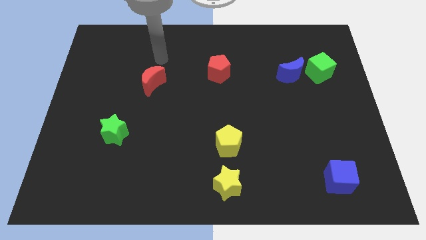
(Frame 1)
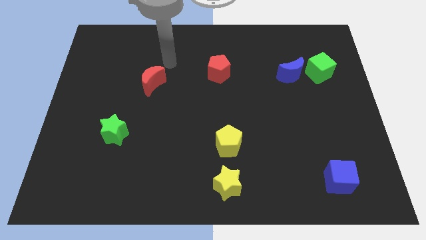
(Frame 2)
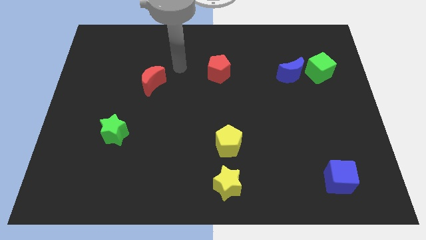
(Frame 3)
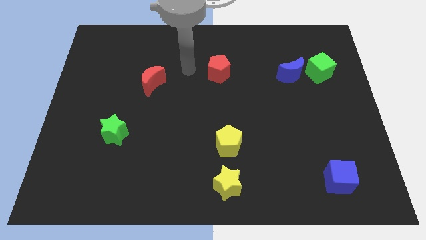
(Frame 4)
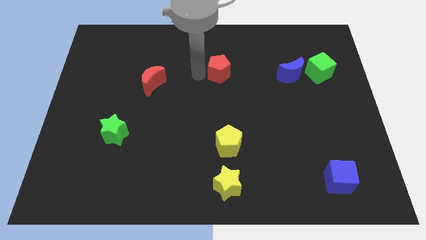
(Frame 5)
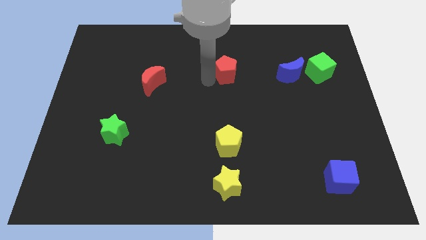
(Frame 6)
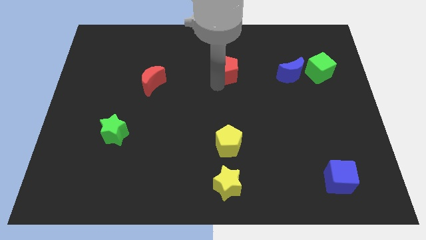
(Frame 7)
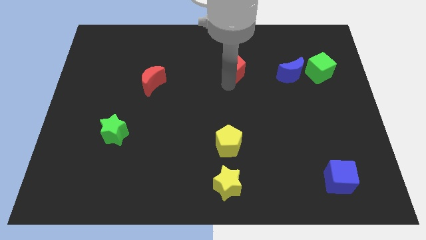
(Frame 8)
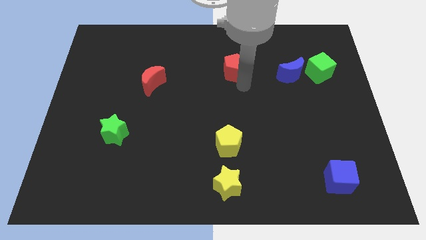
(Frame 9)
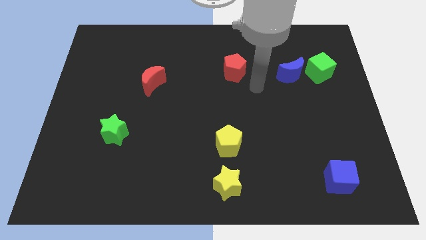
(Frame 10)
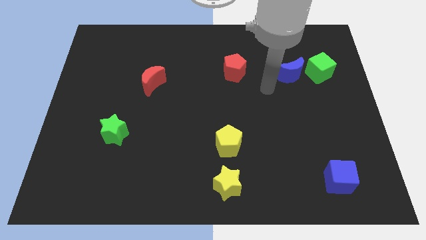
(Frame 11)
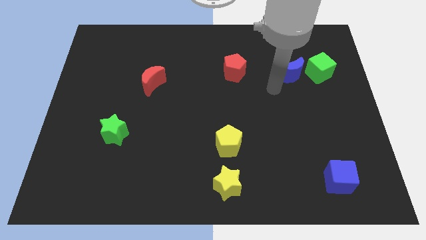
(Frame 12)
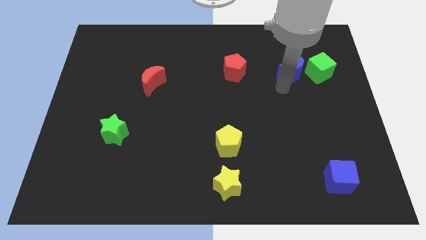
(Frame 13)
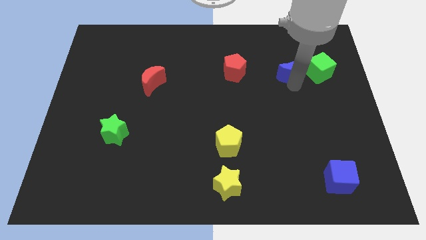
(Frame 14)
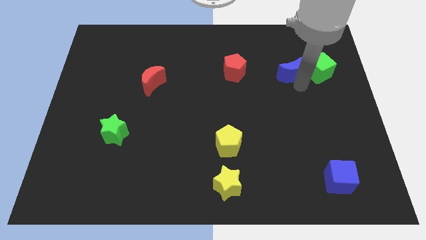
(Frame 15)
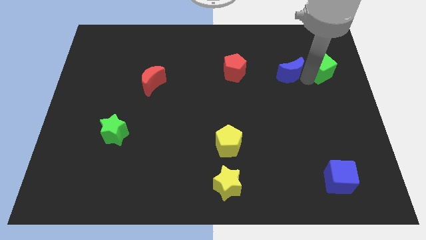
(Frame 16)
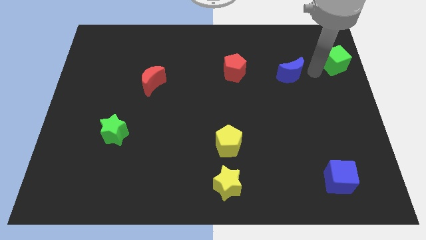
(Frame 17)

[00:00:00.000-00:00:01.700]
separate the blue moon from the green cube

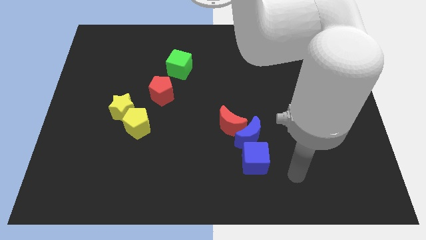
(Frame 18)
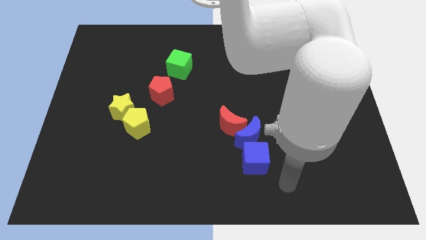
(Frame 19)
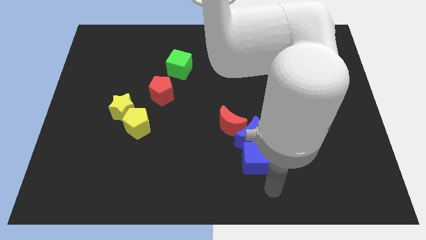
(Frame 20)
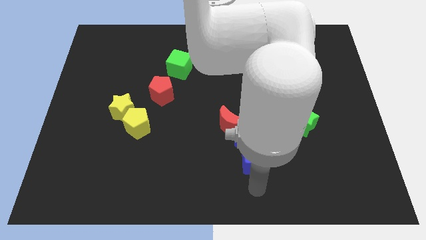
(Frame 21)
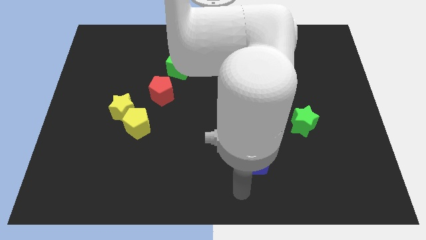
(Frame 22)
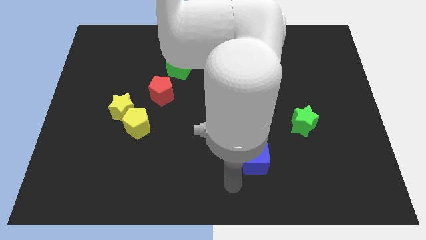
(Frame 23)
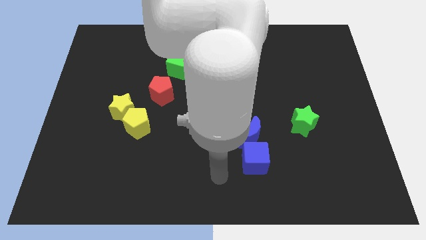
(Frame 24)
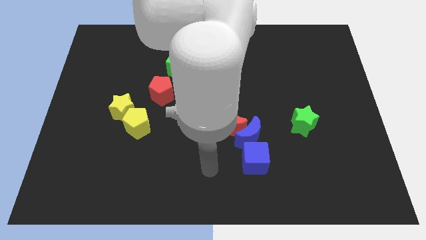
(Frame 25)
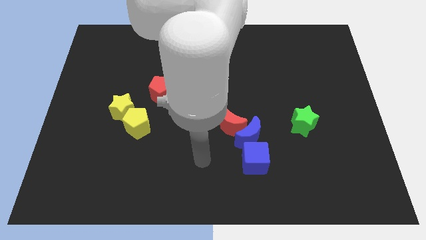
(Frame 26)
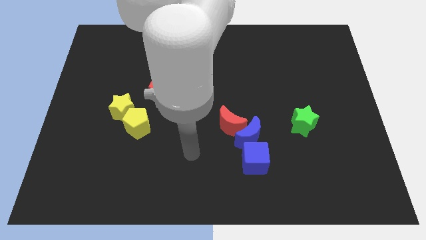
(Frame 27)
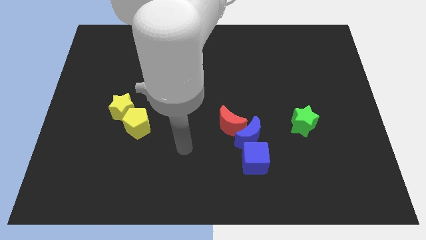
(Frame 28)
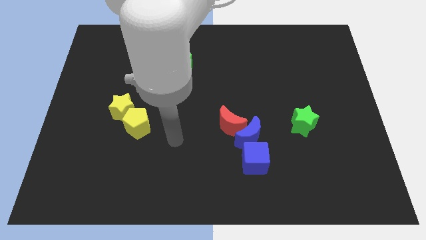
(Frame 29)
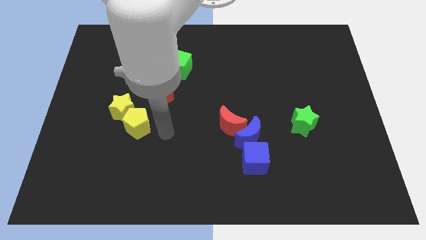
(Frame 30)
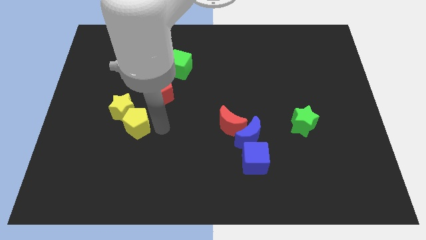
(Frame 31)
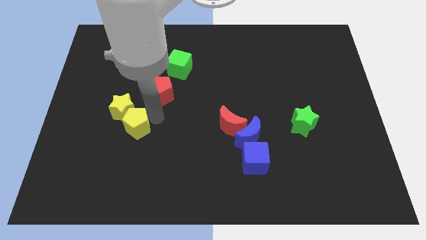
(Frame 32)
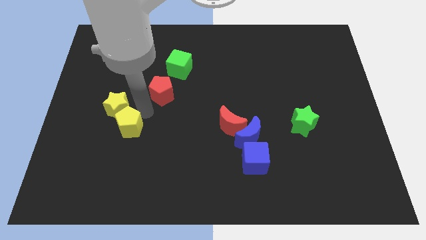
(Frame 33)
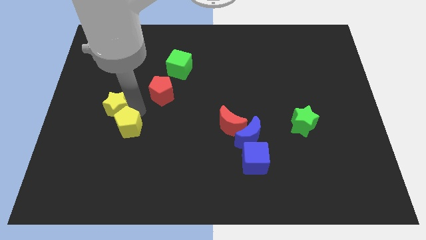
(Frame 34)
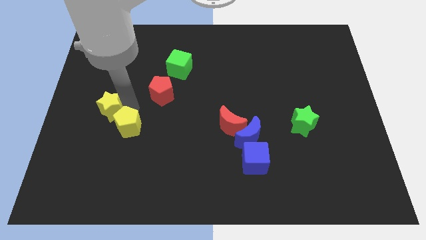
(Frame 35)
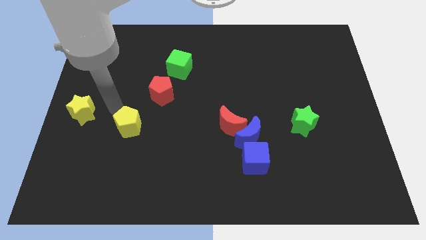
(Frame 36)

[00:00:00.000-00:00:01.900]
move the yellow pentagon away from the yellow star

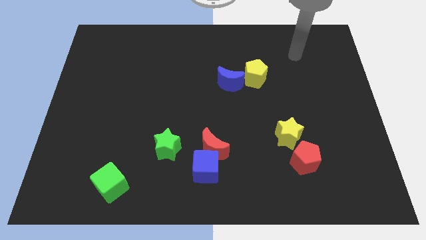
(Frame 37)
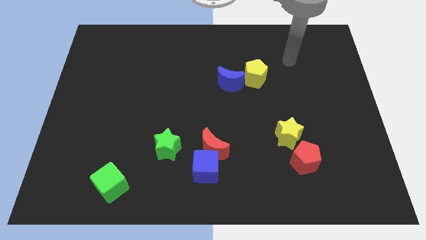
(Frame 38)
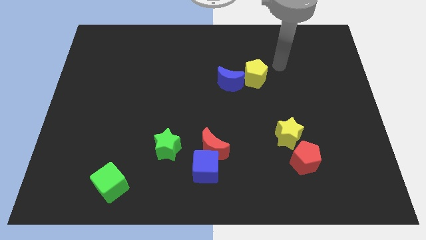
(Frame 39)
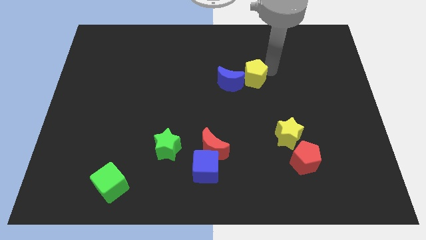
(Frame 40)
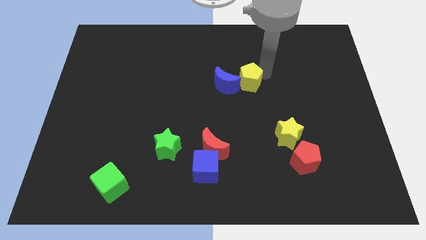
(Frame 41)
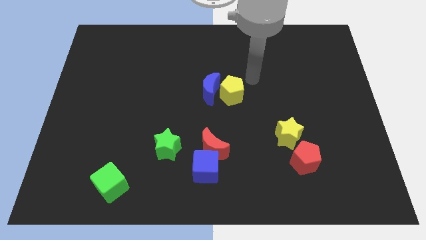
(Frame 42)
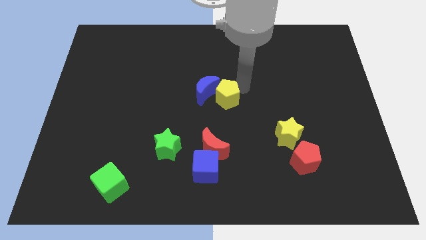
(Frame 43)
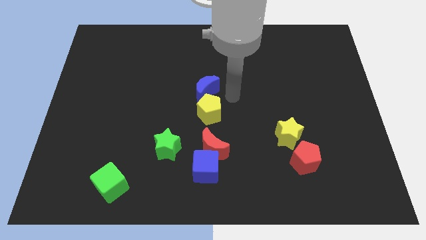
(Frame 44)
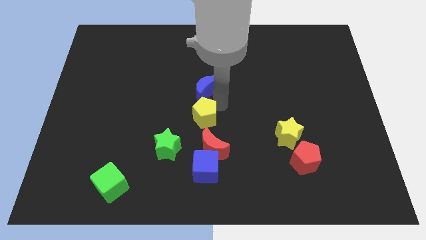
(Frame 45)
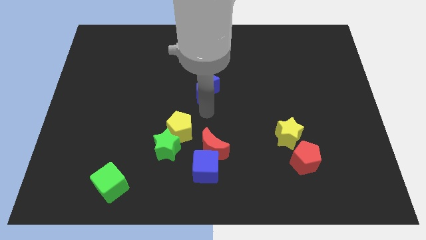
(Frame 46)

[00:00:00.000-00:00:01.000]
pull the blue moon apart from the yellow pentagon

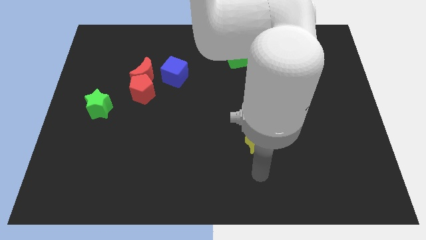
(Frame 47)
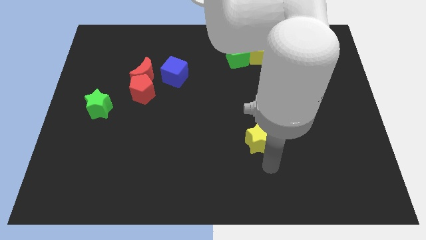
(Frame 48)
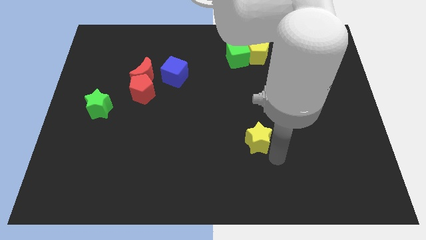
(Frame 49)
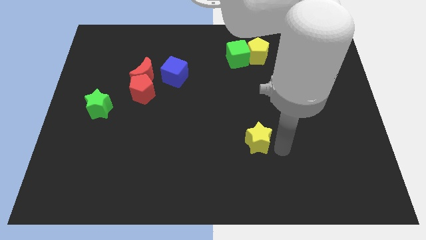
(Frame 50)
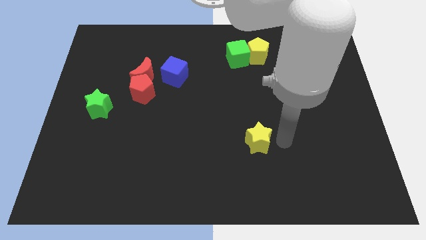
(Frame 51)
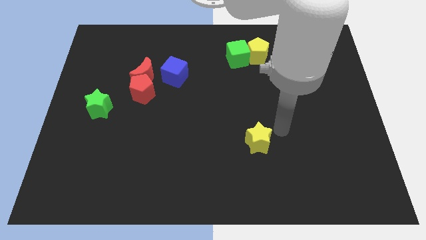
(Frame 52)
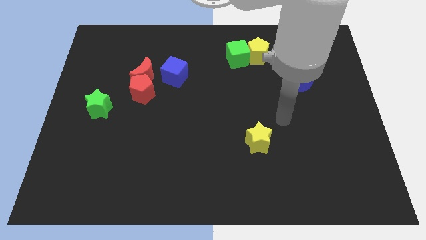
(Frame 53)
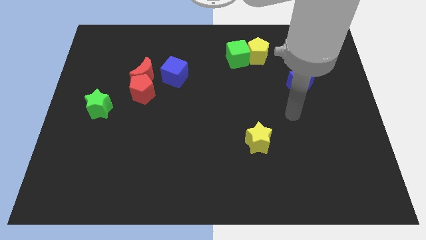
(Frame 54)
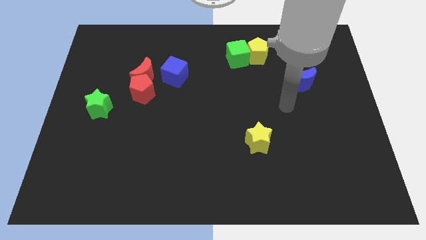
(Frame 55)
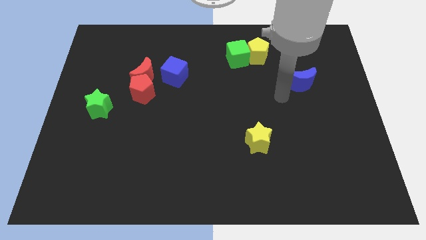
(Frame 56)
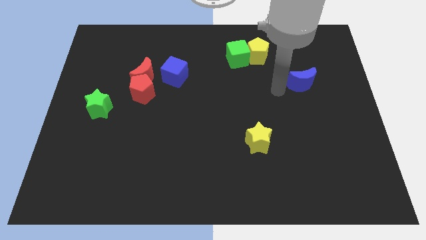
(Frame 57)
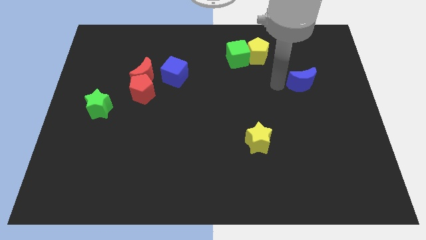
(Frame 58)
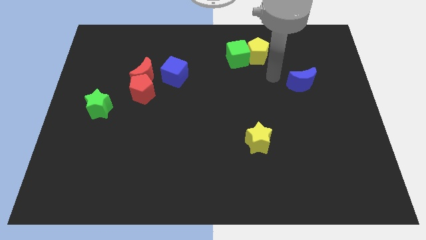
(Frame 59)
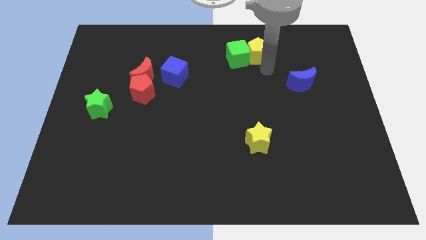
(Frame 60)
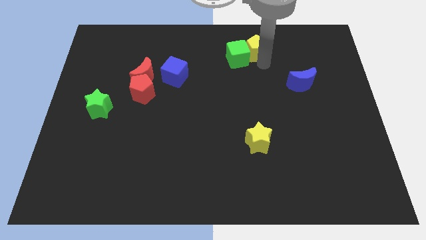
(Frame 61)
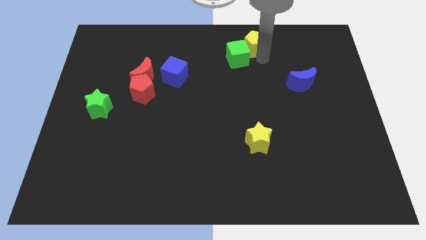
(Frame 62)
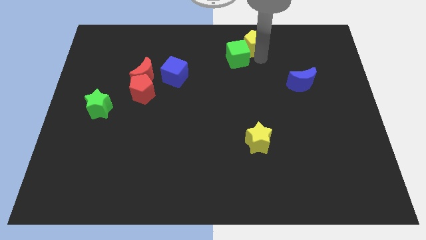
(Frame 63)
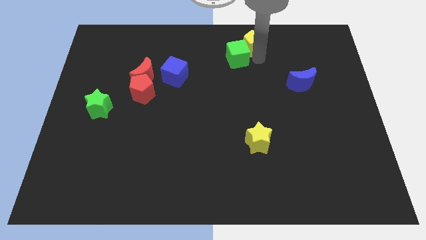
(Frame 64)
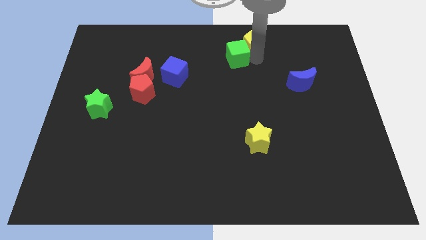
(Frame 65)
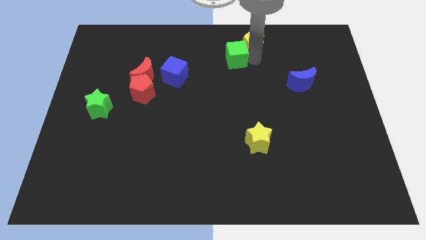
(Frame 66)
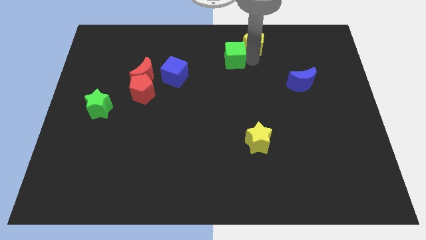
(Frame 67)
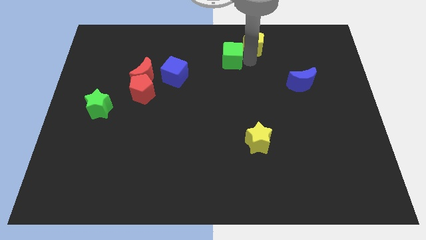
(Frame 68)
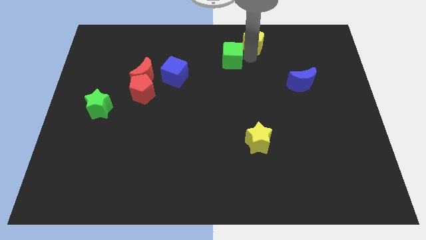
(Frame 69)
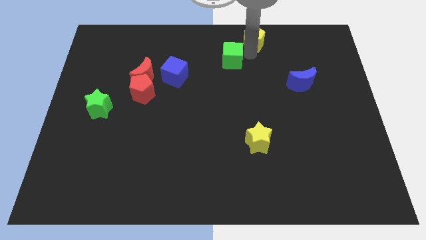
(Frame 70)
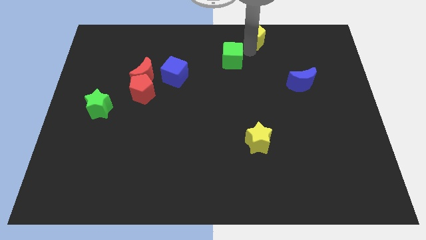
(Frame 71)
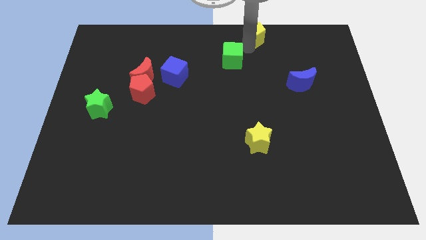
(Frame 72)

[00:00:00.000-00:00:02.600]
separate the green cube from the yellow pentagon

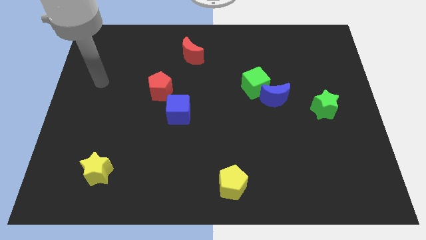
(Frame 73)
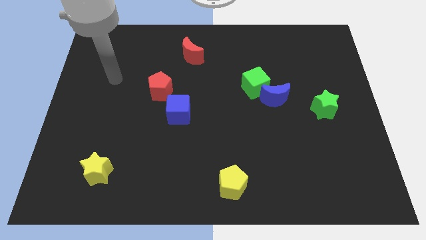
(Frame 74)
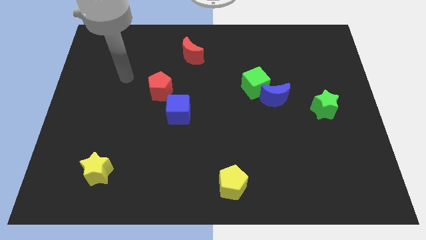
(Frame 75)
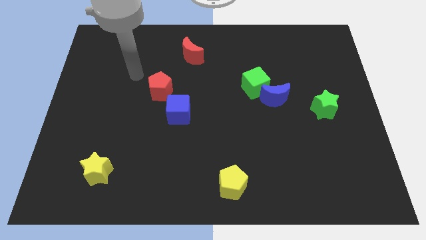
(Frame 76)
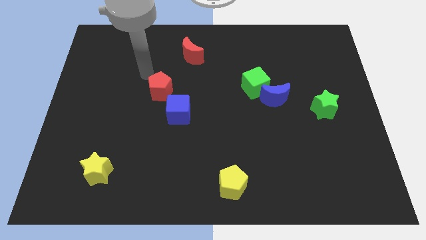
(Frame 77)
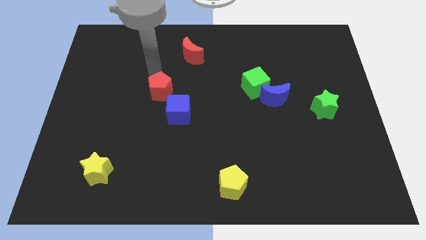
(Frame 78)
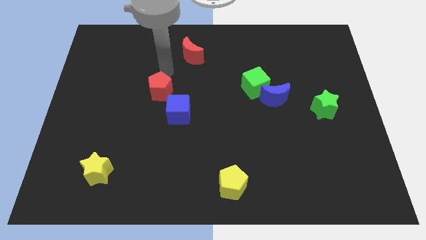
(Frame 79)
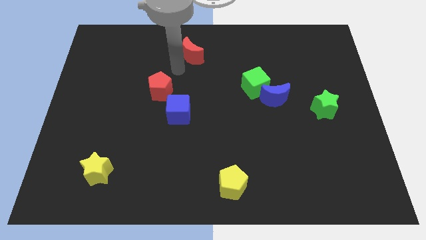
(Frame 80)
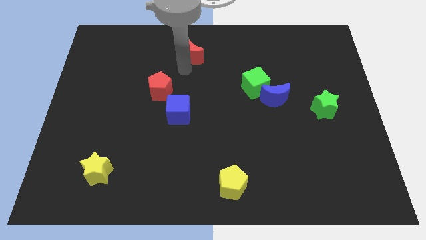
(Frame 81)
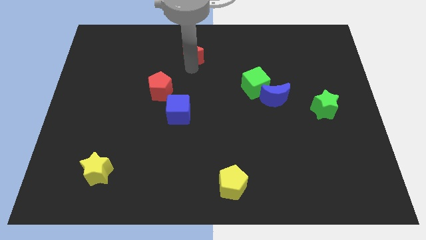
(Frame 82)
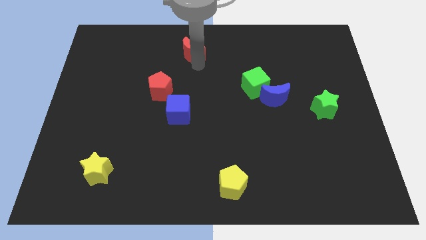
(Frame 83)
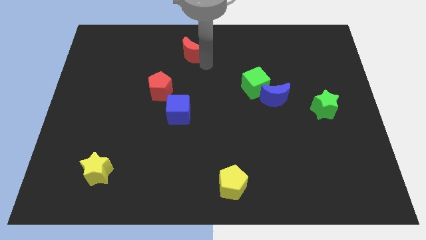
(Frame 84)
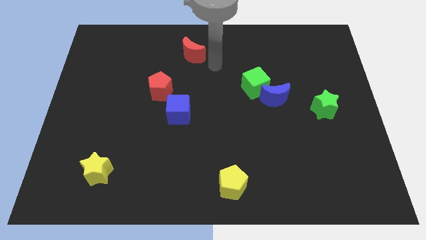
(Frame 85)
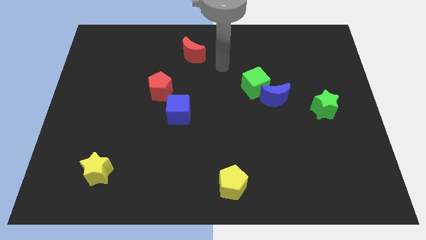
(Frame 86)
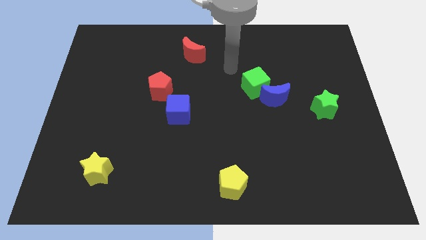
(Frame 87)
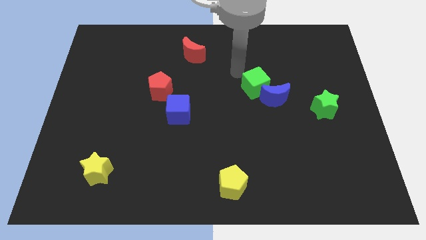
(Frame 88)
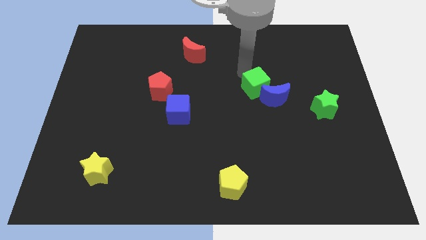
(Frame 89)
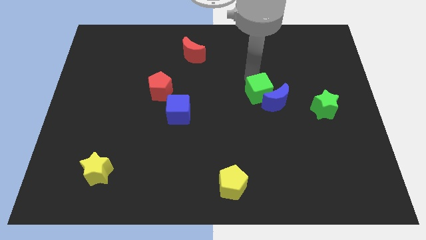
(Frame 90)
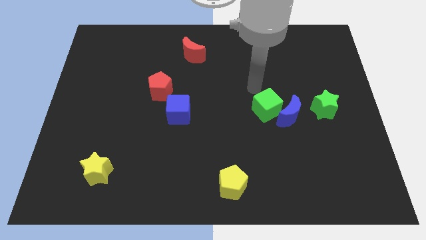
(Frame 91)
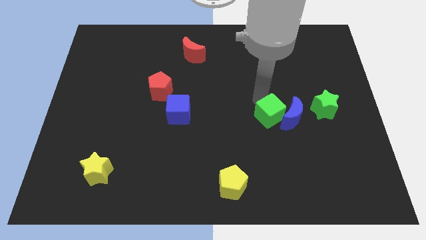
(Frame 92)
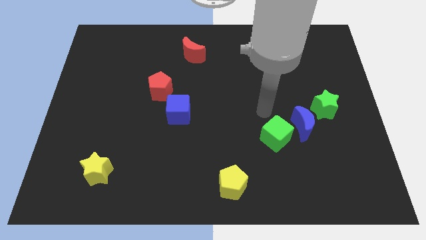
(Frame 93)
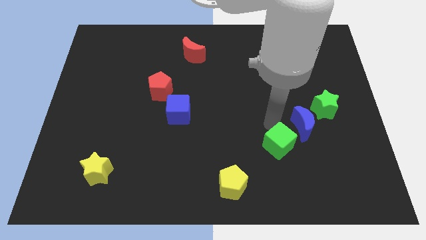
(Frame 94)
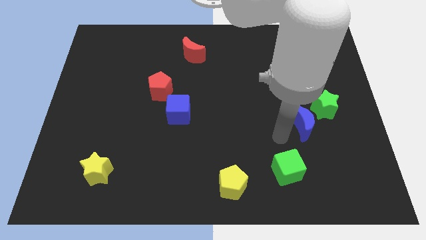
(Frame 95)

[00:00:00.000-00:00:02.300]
move the blue moon away from the green cube
